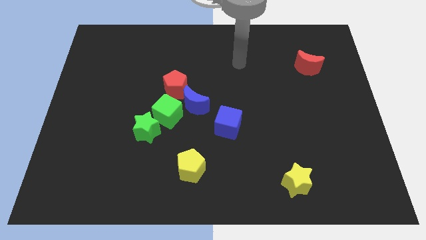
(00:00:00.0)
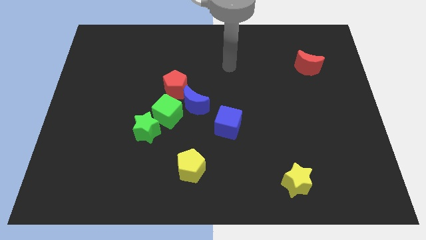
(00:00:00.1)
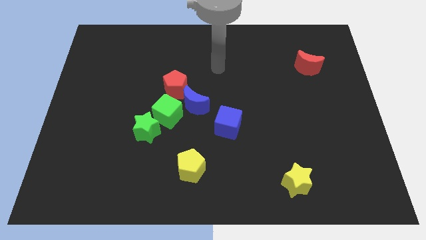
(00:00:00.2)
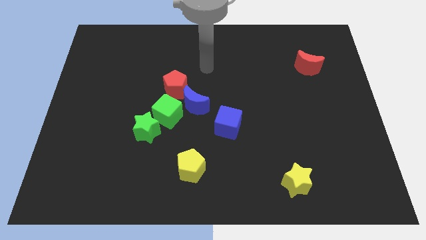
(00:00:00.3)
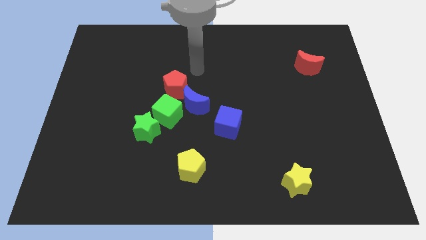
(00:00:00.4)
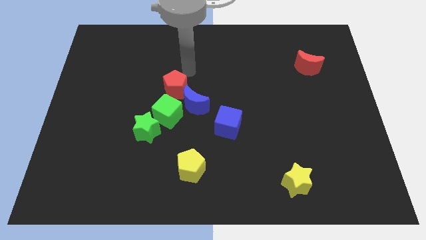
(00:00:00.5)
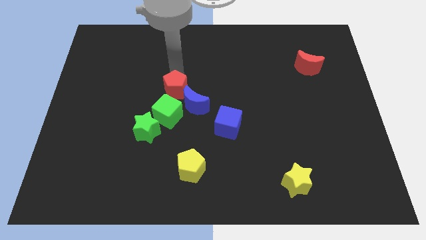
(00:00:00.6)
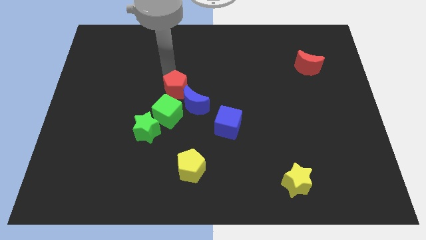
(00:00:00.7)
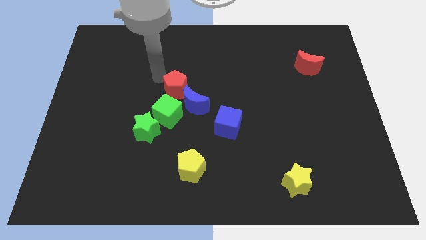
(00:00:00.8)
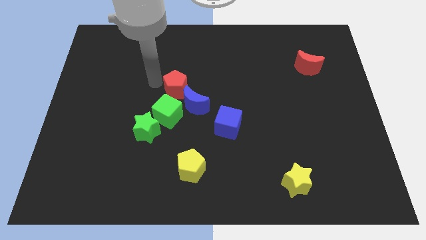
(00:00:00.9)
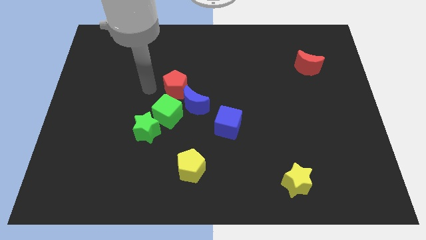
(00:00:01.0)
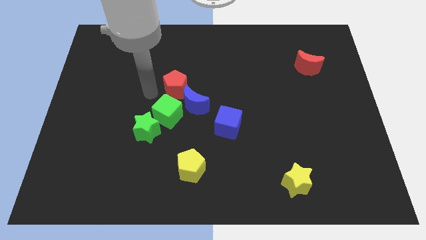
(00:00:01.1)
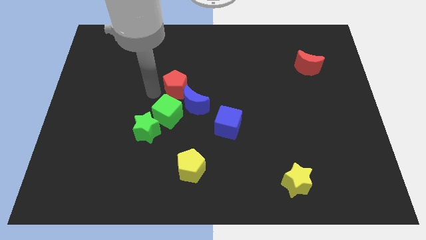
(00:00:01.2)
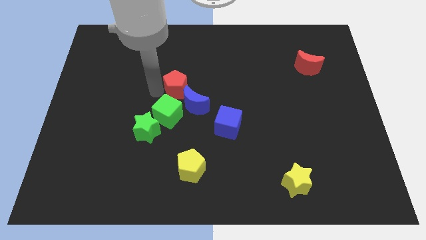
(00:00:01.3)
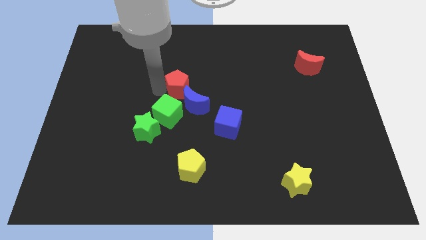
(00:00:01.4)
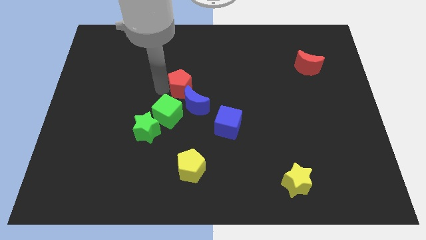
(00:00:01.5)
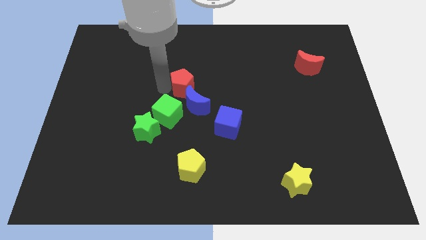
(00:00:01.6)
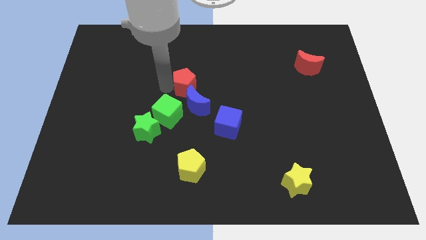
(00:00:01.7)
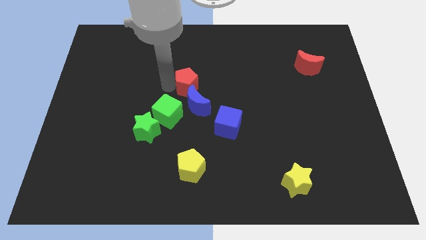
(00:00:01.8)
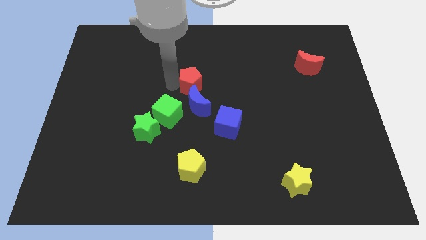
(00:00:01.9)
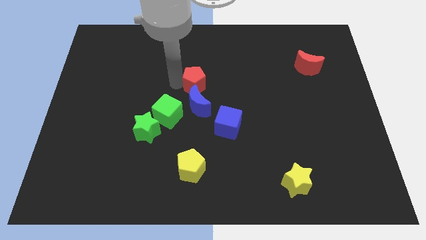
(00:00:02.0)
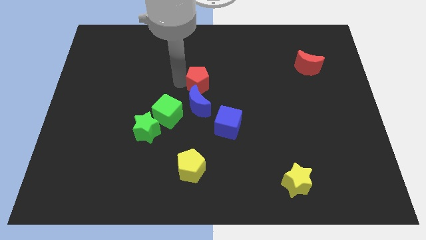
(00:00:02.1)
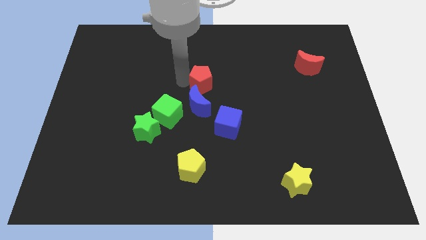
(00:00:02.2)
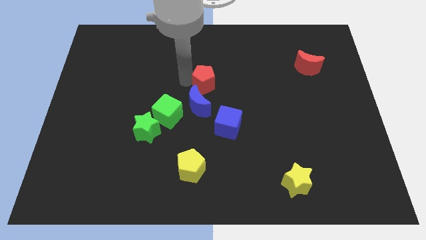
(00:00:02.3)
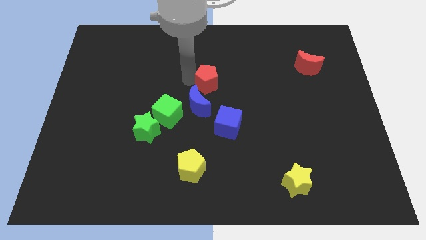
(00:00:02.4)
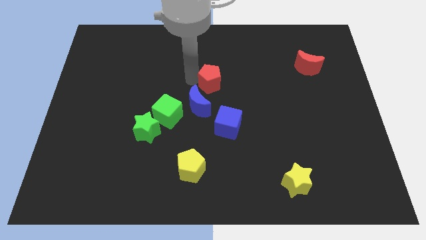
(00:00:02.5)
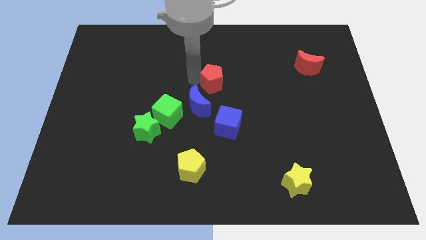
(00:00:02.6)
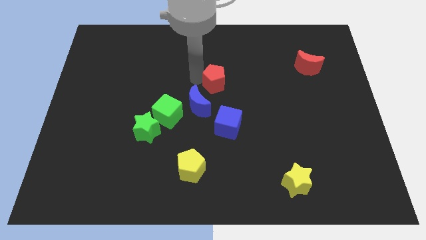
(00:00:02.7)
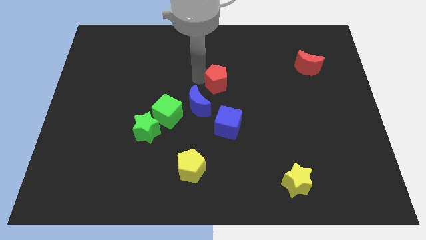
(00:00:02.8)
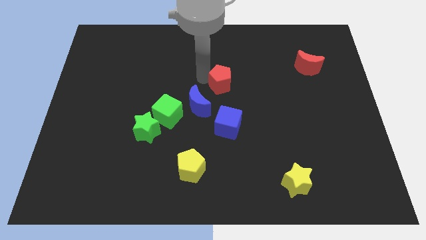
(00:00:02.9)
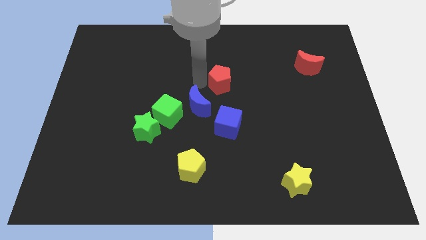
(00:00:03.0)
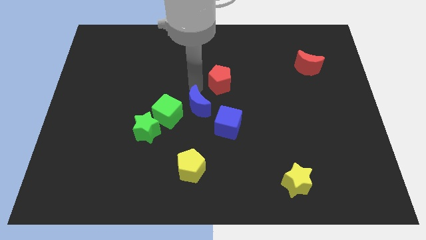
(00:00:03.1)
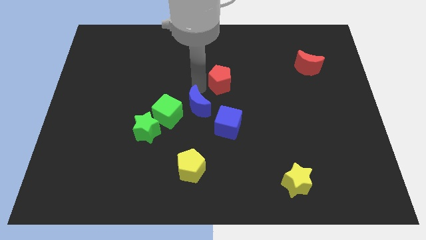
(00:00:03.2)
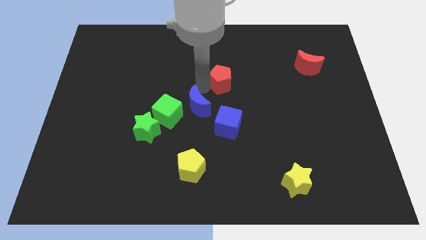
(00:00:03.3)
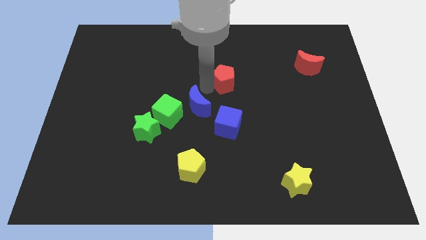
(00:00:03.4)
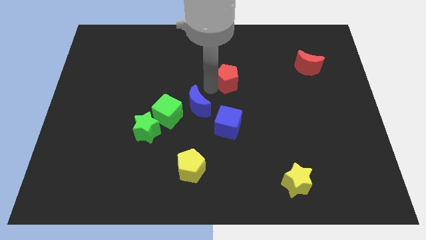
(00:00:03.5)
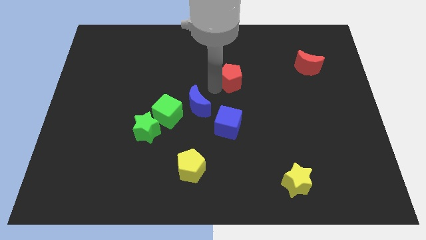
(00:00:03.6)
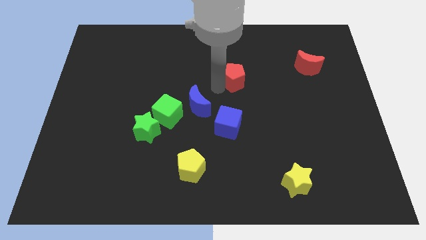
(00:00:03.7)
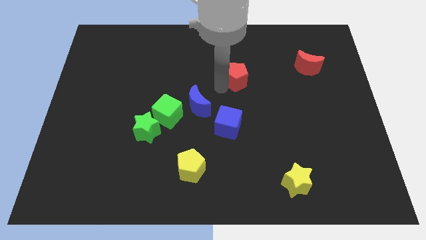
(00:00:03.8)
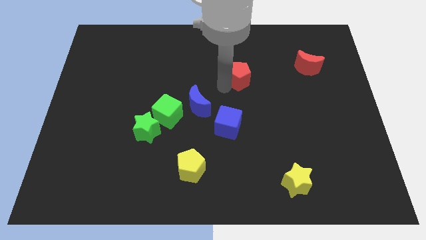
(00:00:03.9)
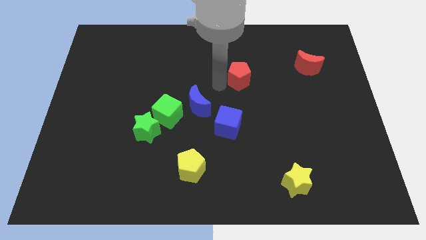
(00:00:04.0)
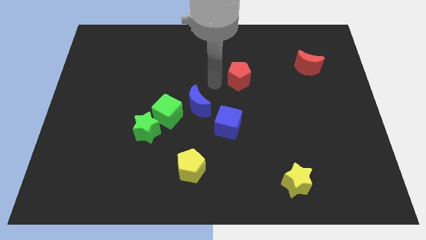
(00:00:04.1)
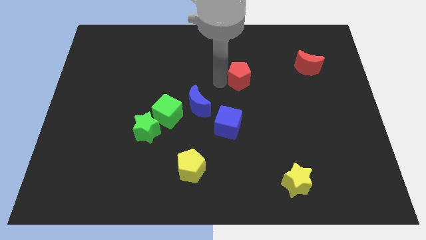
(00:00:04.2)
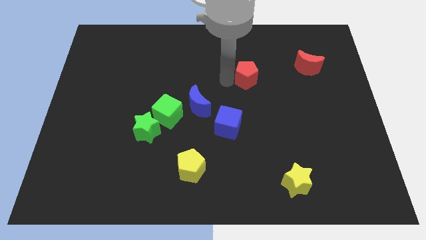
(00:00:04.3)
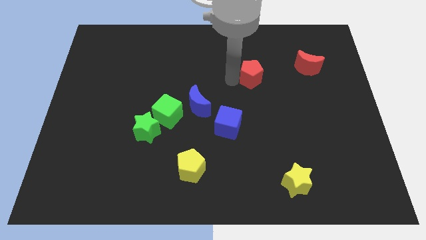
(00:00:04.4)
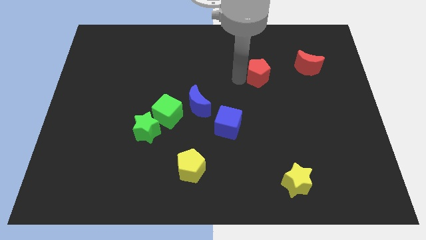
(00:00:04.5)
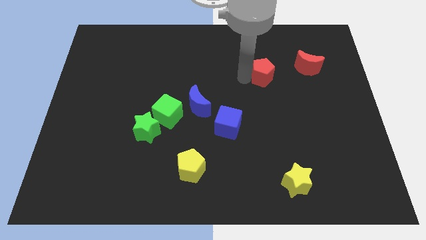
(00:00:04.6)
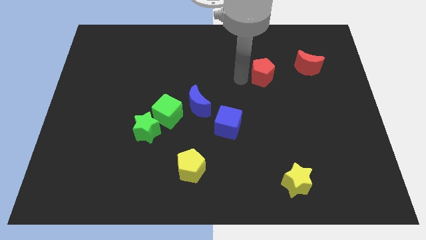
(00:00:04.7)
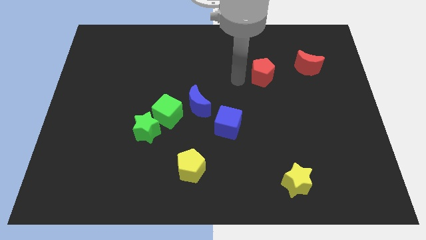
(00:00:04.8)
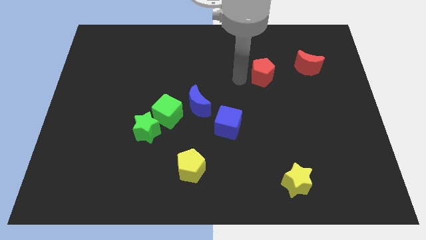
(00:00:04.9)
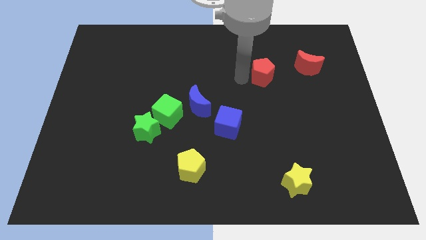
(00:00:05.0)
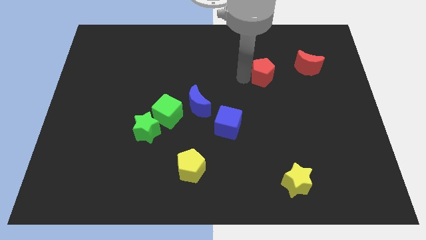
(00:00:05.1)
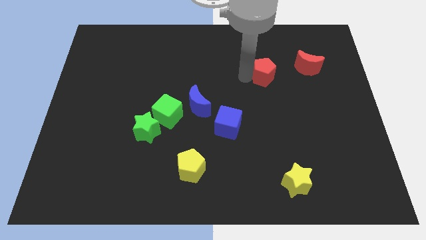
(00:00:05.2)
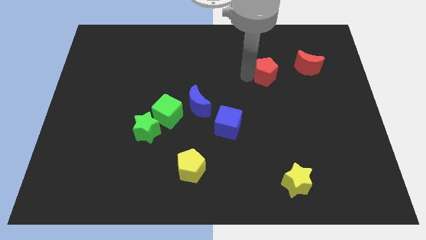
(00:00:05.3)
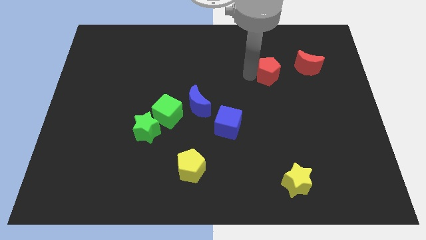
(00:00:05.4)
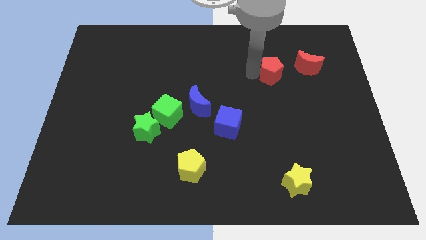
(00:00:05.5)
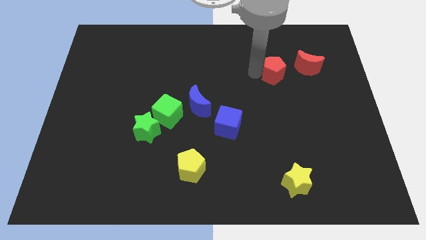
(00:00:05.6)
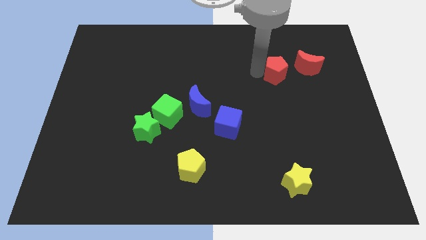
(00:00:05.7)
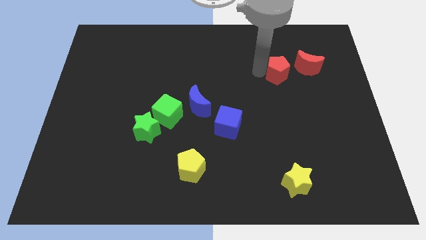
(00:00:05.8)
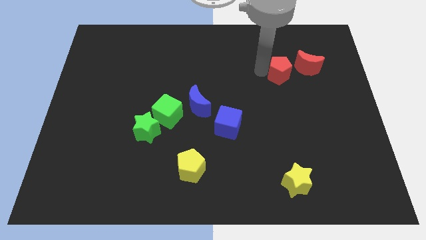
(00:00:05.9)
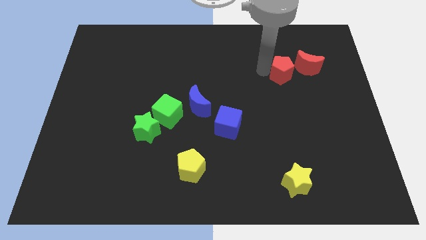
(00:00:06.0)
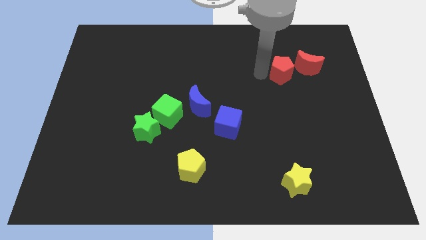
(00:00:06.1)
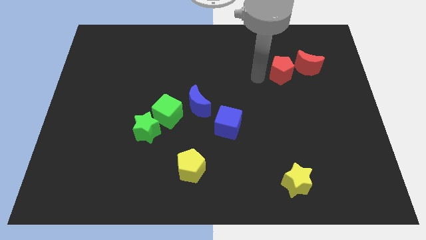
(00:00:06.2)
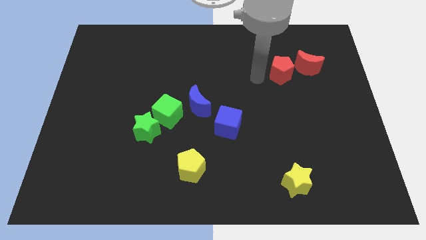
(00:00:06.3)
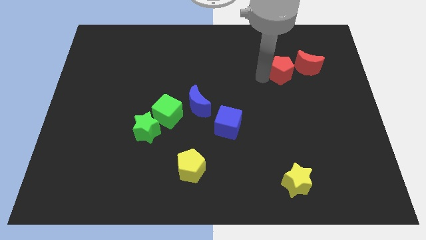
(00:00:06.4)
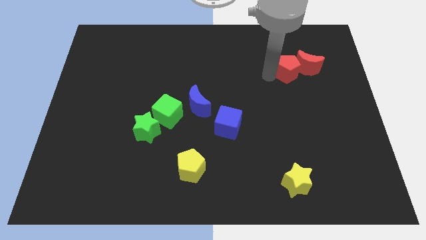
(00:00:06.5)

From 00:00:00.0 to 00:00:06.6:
put the red pentagon to the red moon
